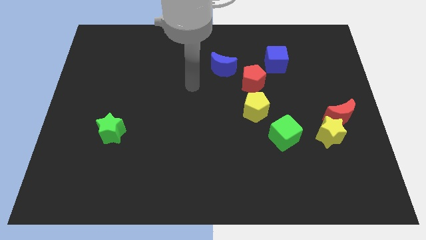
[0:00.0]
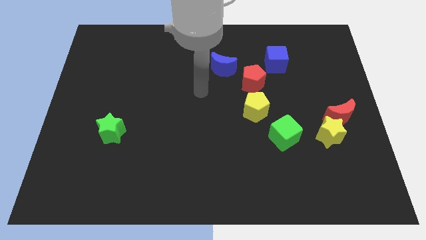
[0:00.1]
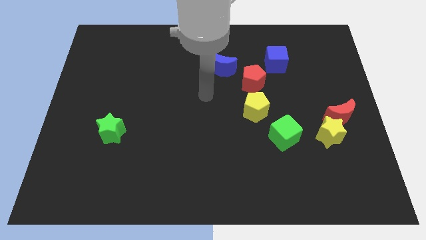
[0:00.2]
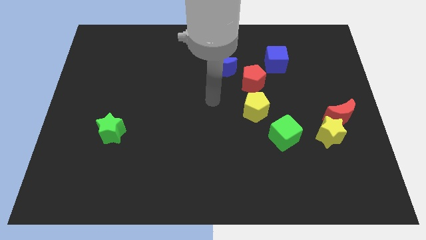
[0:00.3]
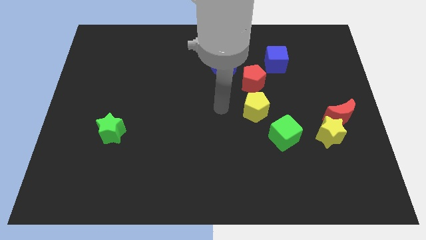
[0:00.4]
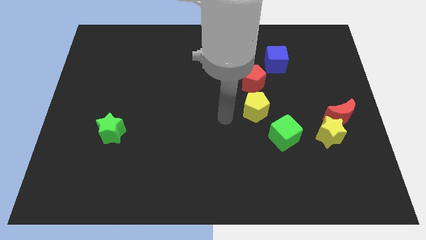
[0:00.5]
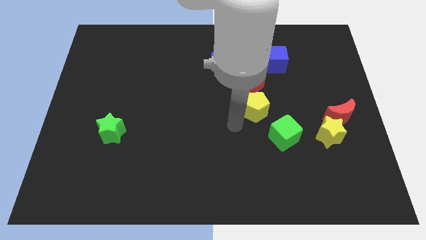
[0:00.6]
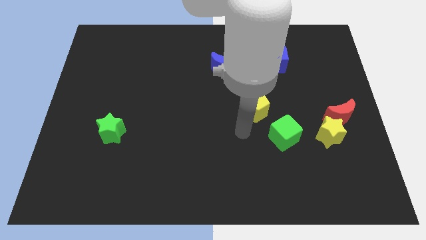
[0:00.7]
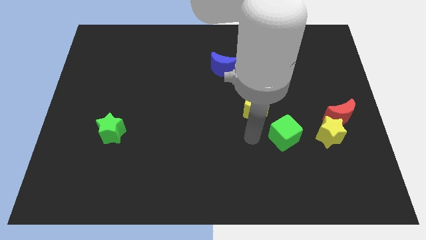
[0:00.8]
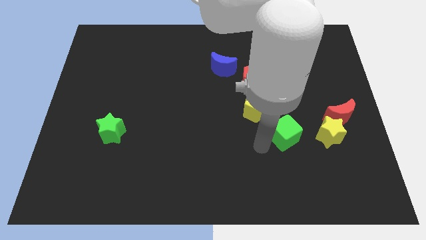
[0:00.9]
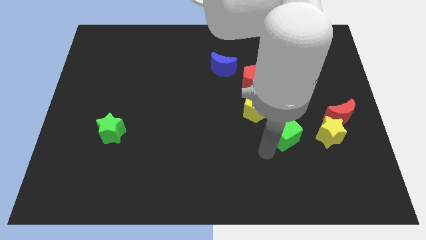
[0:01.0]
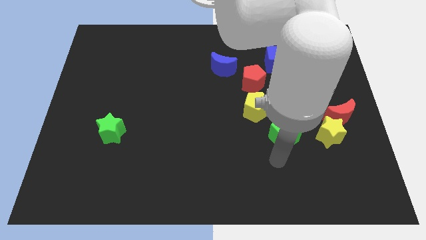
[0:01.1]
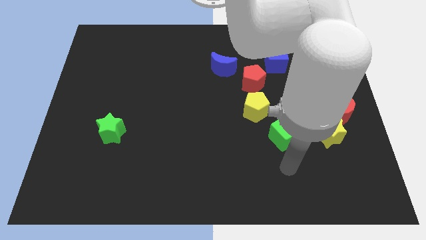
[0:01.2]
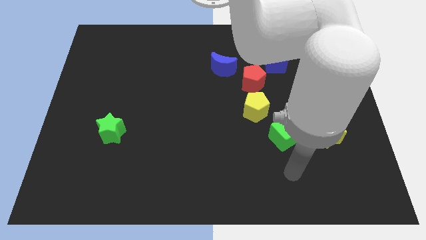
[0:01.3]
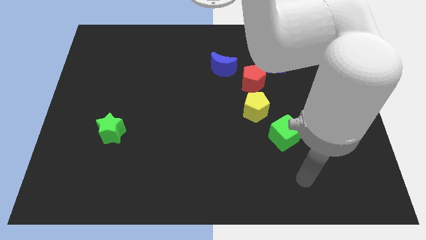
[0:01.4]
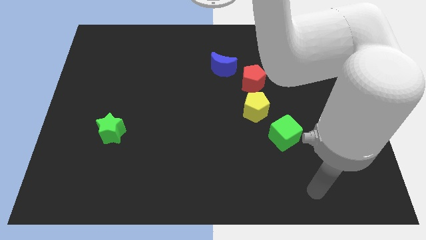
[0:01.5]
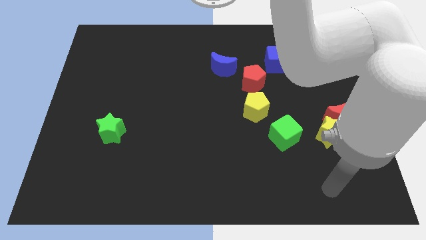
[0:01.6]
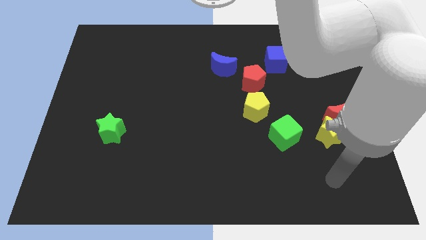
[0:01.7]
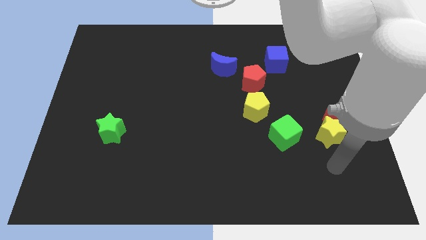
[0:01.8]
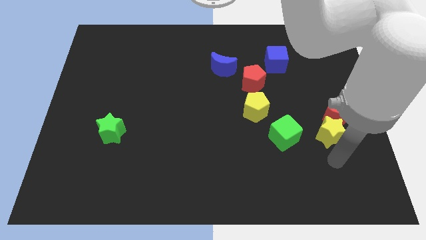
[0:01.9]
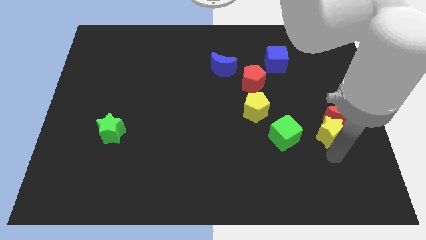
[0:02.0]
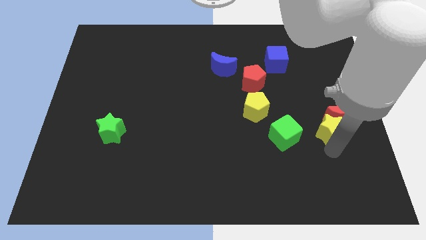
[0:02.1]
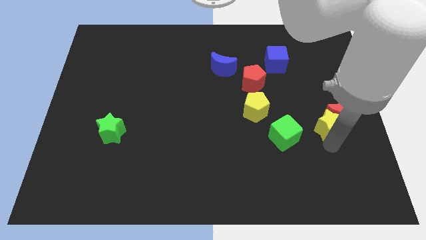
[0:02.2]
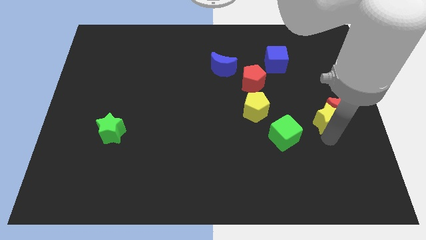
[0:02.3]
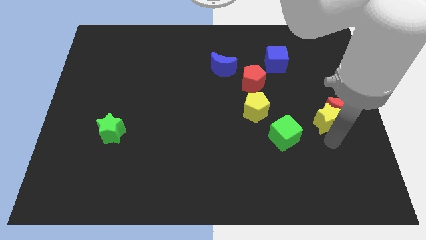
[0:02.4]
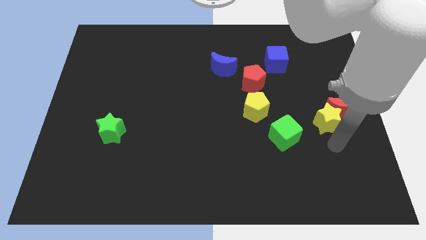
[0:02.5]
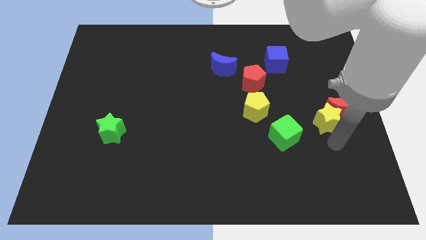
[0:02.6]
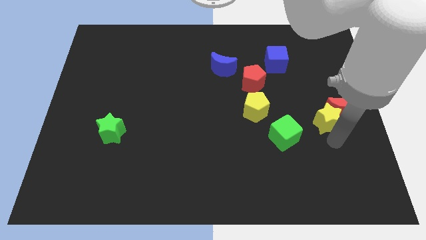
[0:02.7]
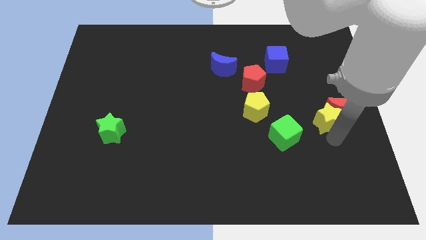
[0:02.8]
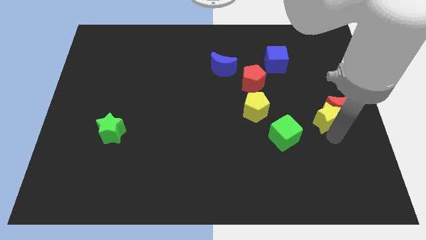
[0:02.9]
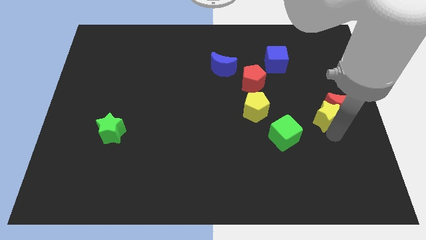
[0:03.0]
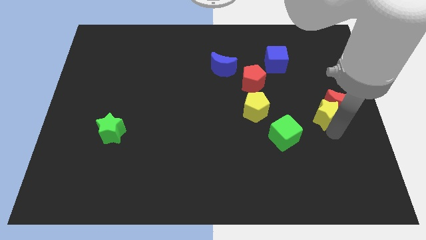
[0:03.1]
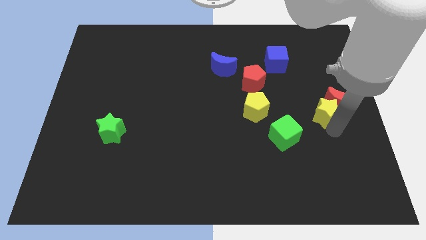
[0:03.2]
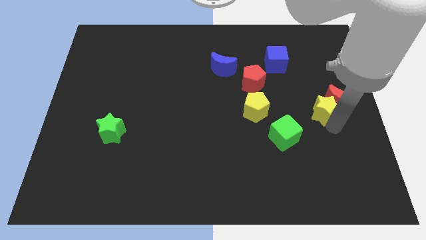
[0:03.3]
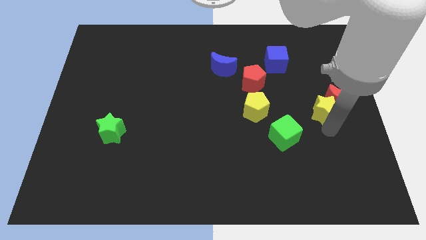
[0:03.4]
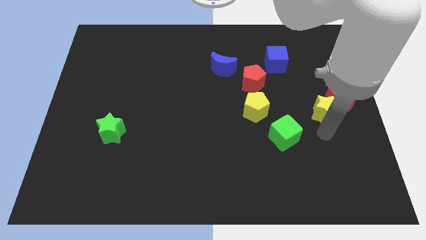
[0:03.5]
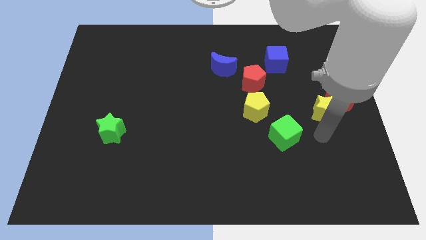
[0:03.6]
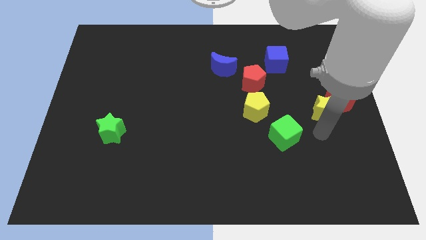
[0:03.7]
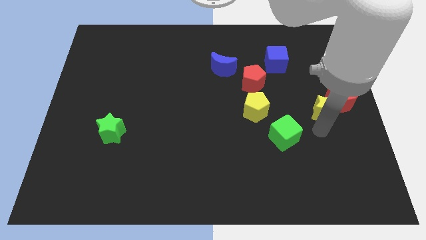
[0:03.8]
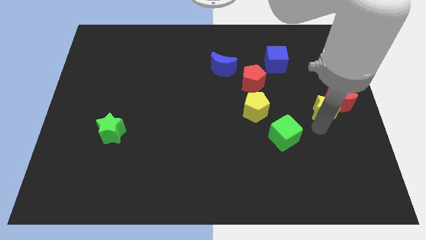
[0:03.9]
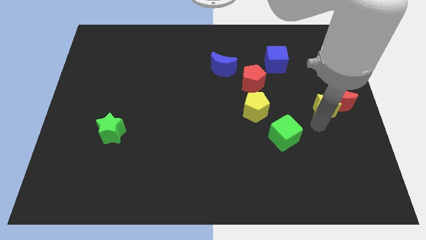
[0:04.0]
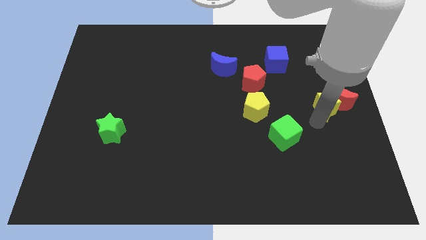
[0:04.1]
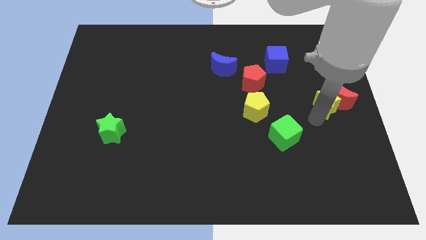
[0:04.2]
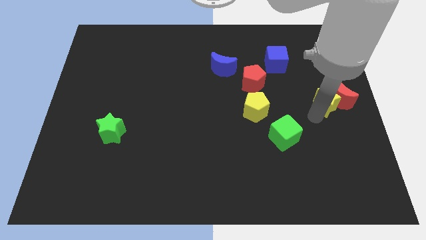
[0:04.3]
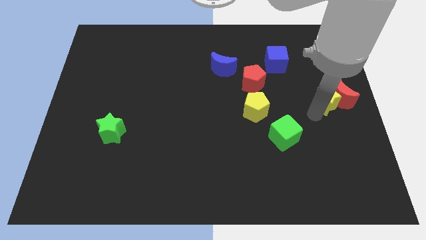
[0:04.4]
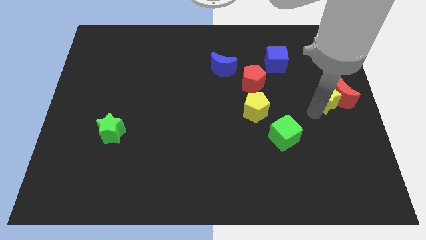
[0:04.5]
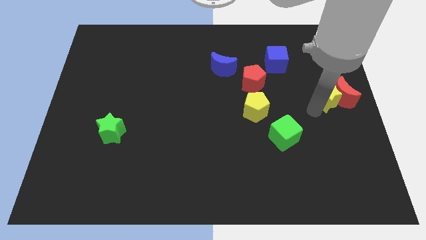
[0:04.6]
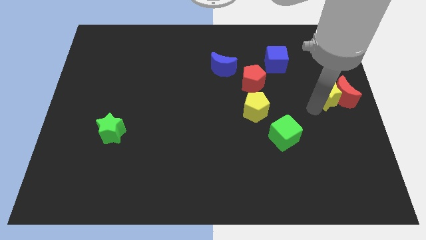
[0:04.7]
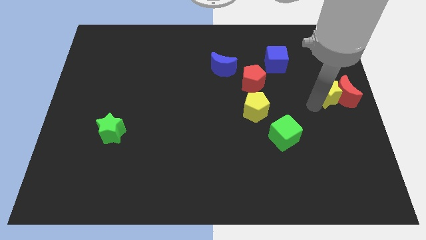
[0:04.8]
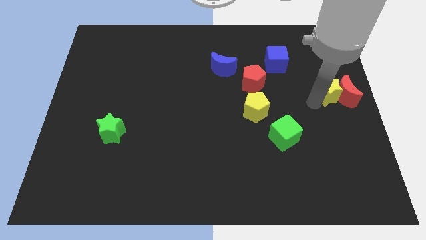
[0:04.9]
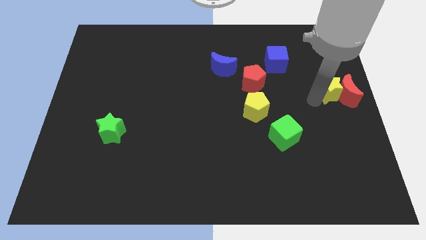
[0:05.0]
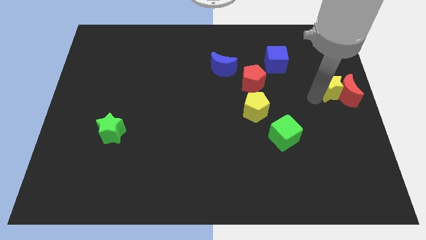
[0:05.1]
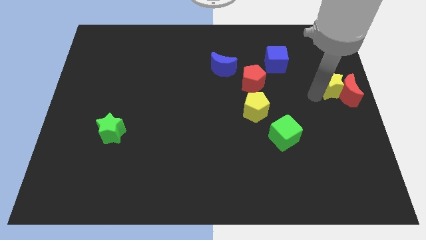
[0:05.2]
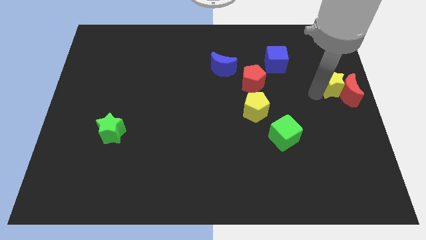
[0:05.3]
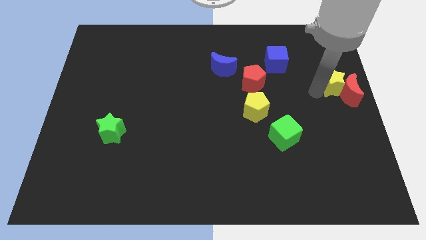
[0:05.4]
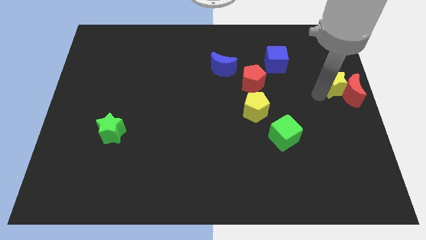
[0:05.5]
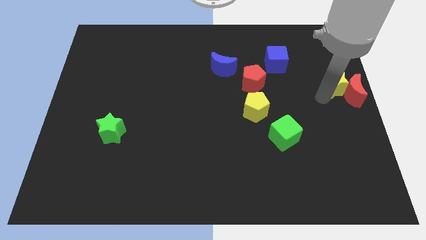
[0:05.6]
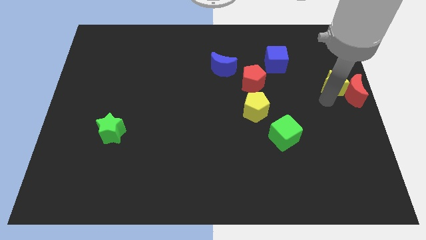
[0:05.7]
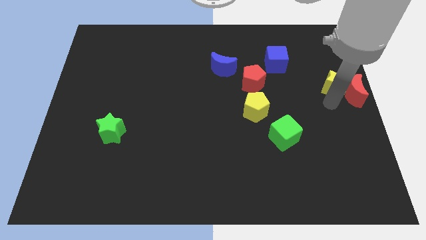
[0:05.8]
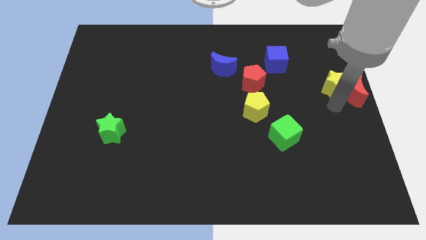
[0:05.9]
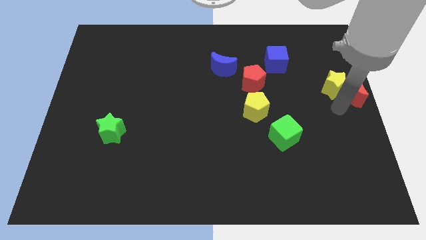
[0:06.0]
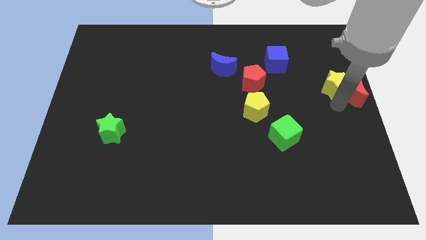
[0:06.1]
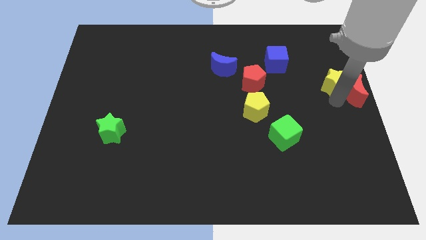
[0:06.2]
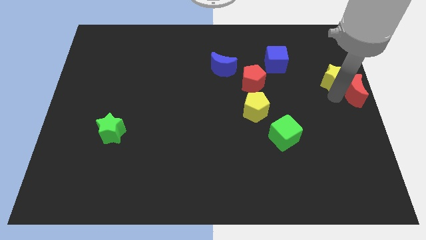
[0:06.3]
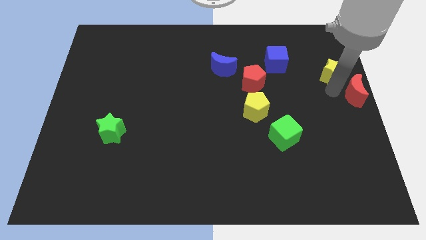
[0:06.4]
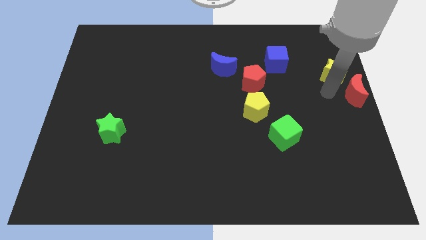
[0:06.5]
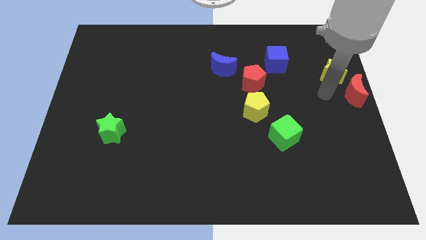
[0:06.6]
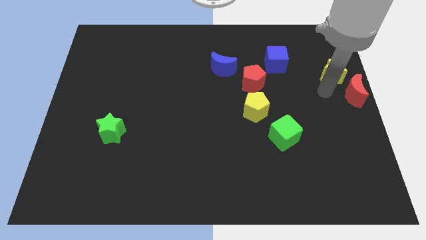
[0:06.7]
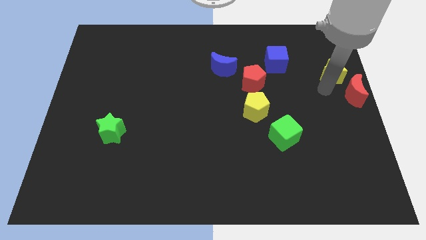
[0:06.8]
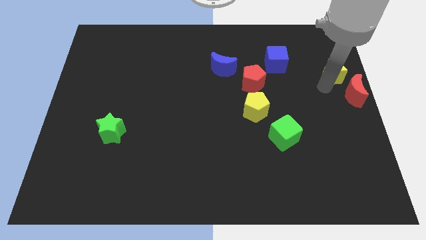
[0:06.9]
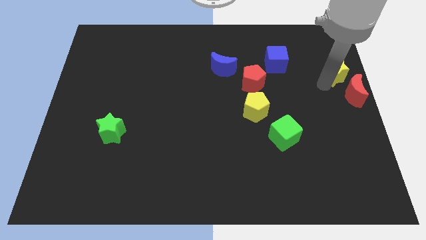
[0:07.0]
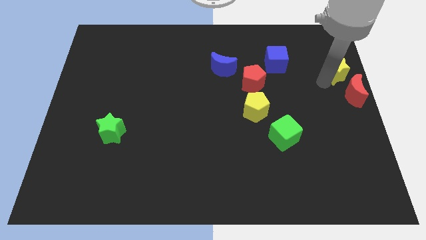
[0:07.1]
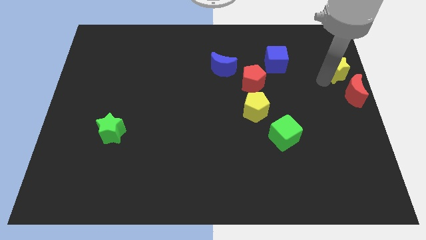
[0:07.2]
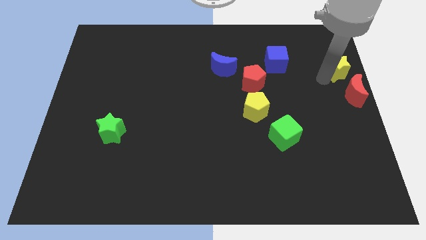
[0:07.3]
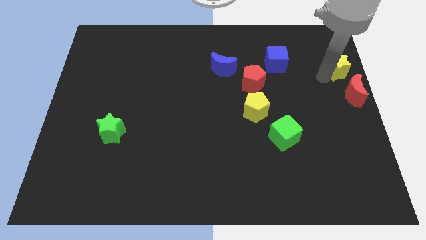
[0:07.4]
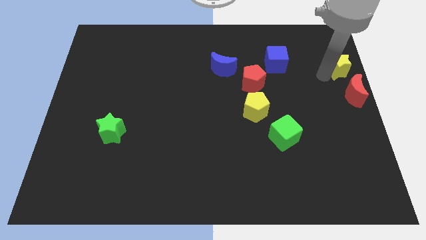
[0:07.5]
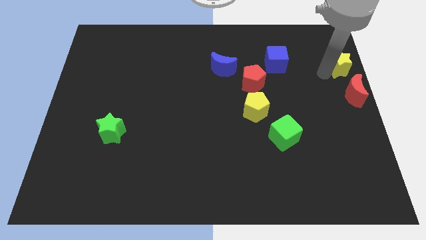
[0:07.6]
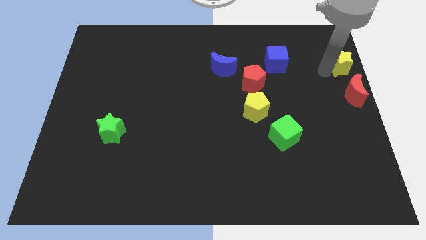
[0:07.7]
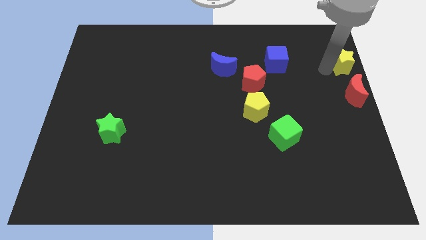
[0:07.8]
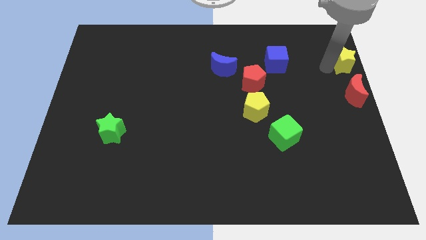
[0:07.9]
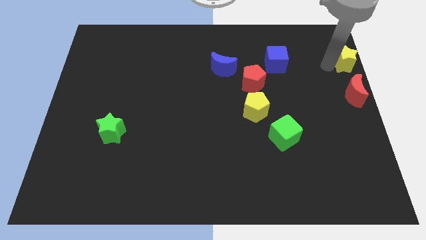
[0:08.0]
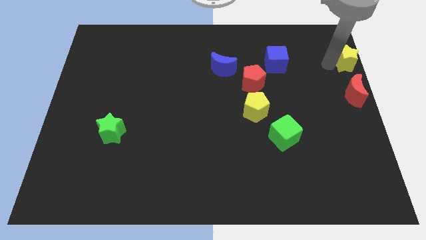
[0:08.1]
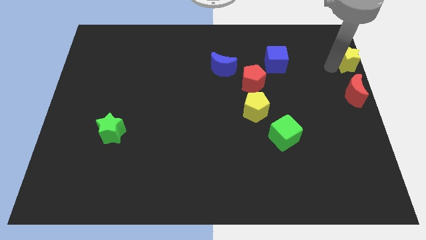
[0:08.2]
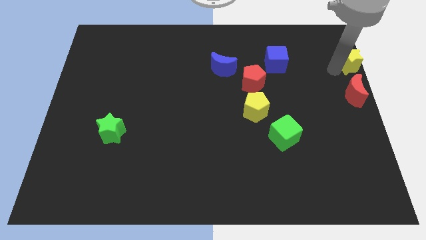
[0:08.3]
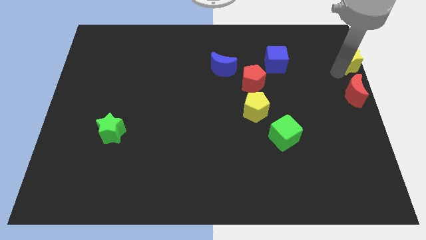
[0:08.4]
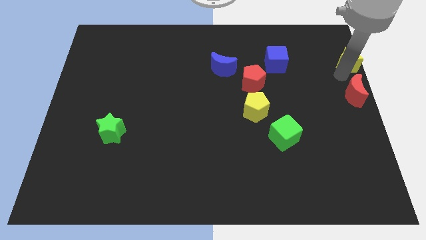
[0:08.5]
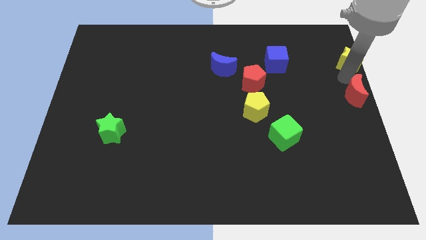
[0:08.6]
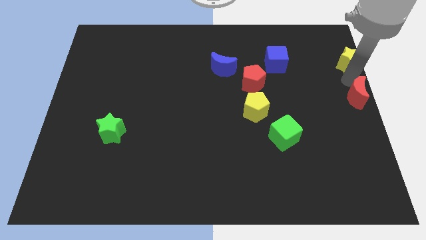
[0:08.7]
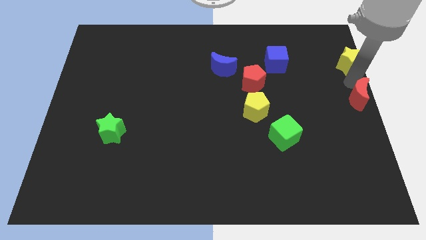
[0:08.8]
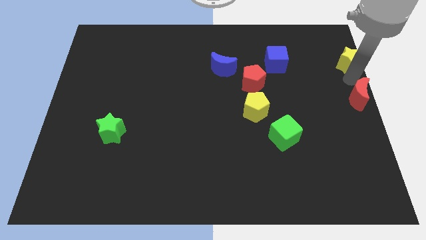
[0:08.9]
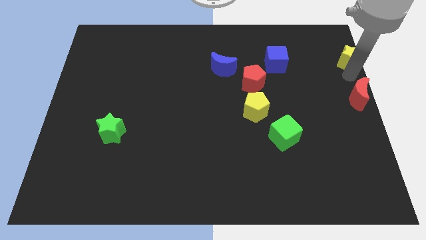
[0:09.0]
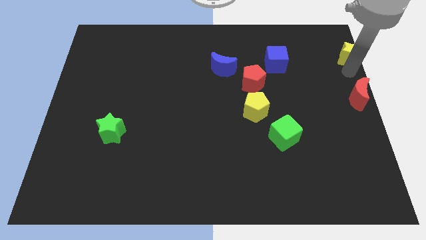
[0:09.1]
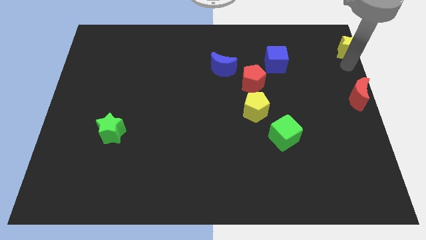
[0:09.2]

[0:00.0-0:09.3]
push the yellow star to the top right of the board
